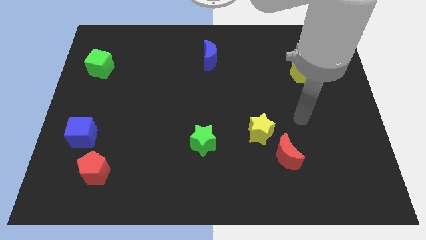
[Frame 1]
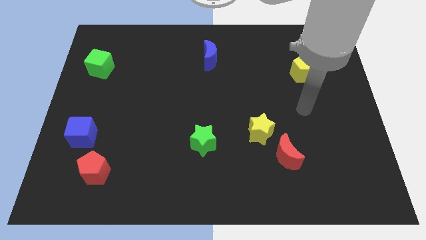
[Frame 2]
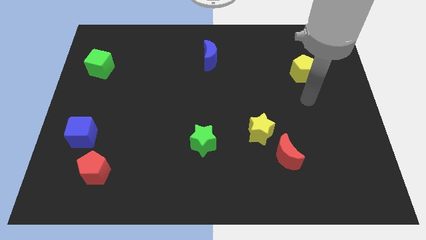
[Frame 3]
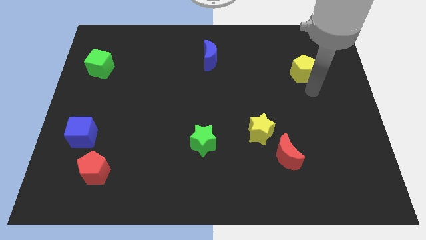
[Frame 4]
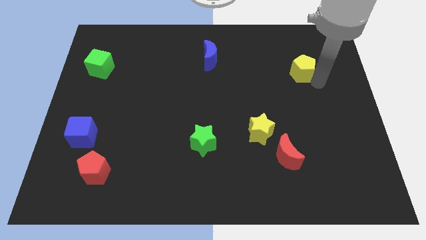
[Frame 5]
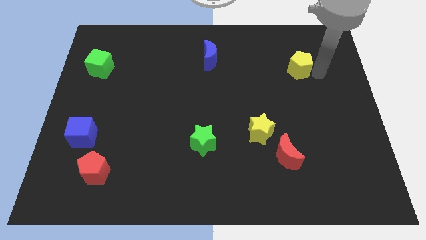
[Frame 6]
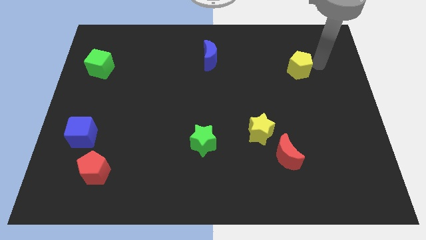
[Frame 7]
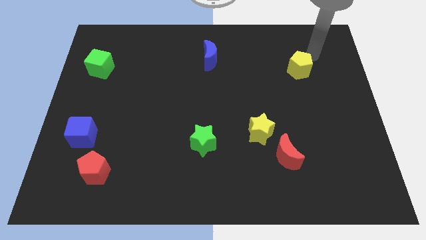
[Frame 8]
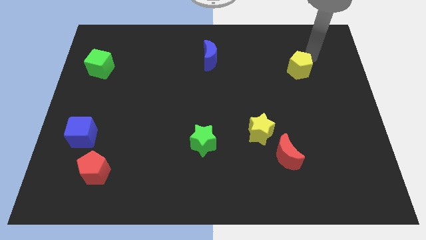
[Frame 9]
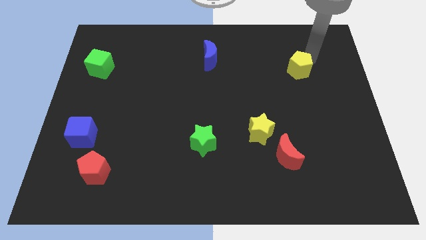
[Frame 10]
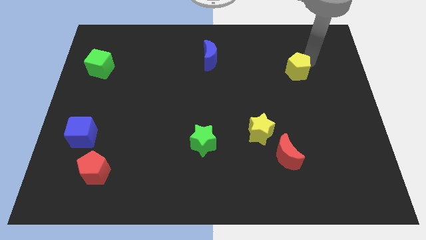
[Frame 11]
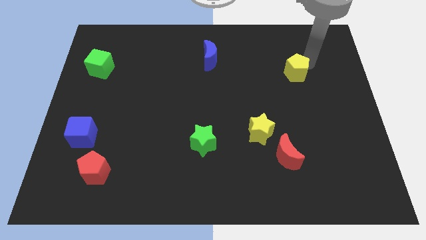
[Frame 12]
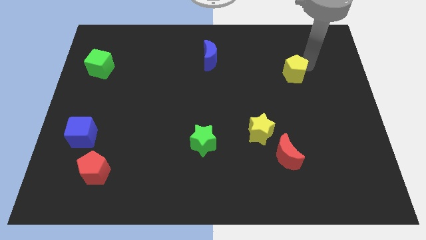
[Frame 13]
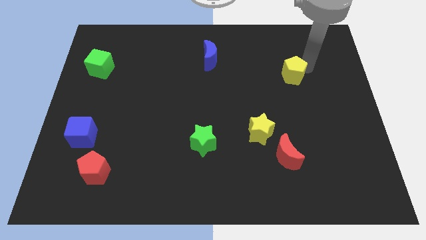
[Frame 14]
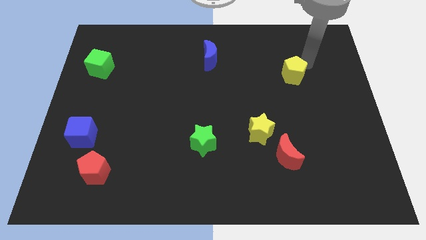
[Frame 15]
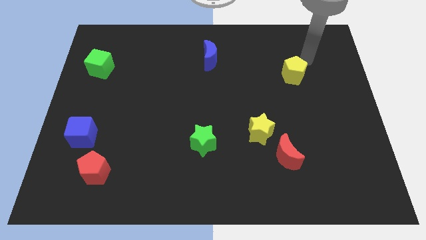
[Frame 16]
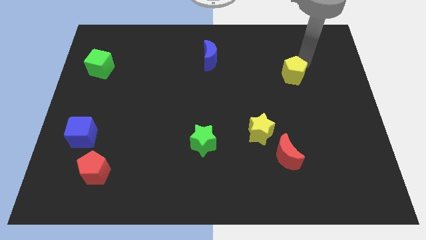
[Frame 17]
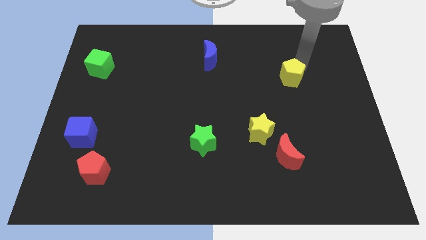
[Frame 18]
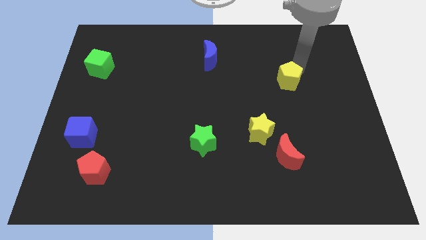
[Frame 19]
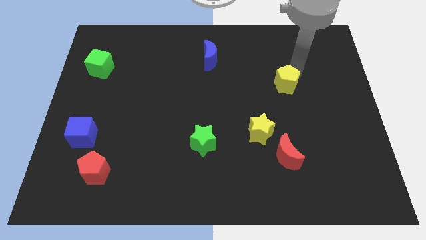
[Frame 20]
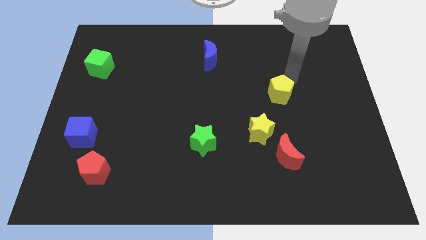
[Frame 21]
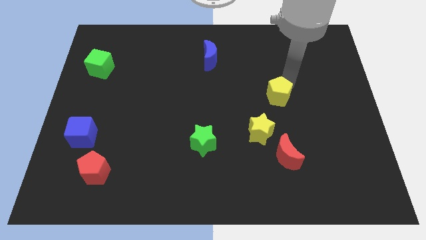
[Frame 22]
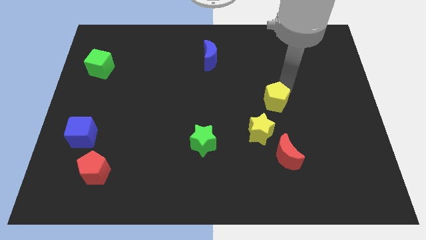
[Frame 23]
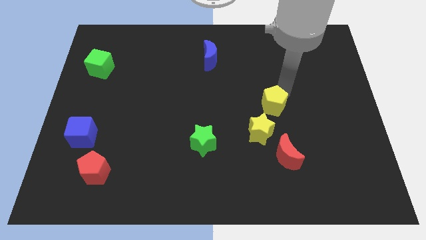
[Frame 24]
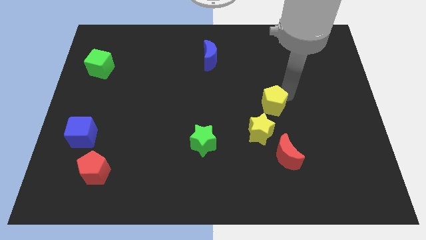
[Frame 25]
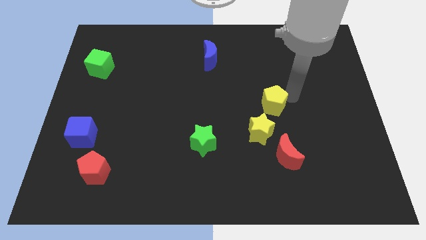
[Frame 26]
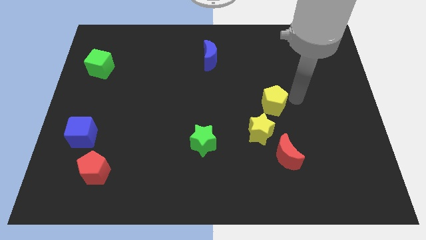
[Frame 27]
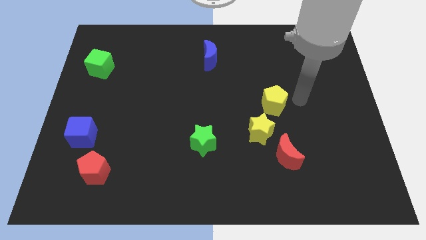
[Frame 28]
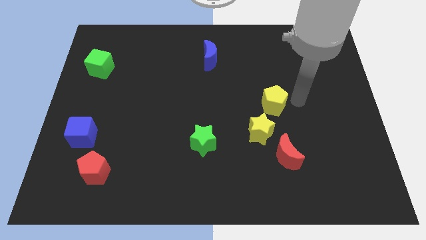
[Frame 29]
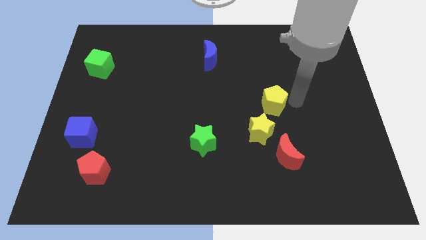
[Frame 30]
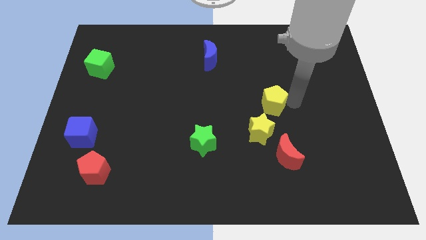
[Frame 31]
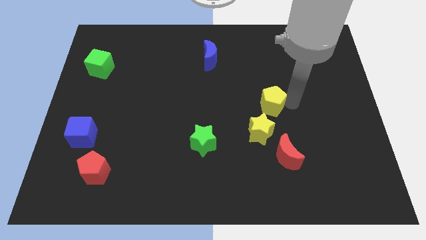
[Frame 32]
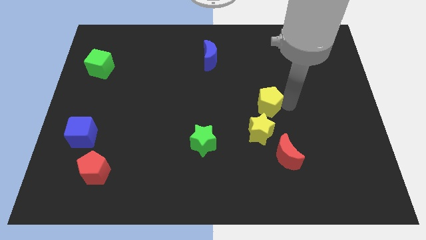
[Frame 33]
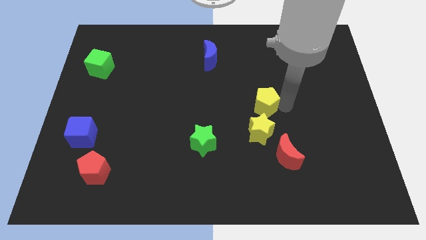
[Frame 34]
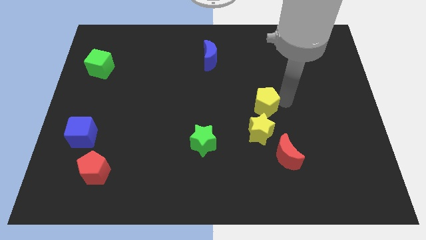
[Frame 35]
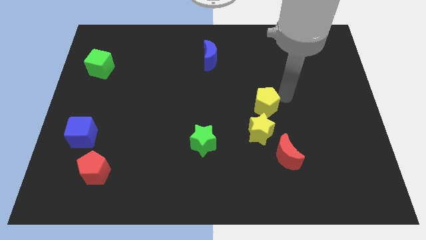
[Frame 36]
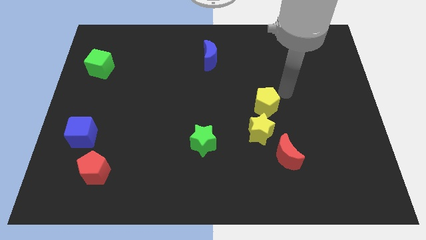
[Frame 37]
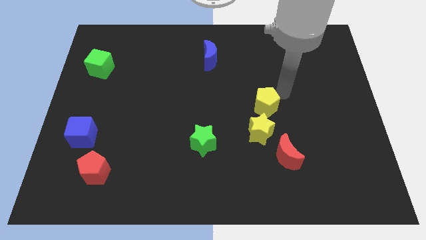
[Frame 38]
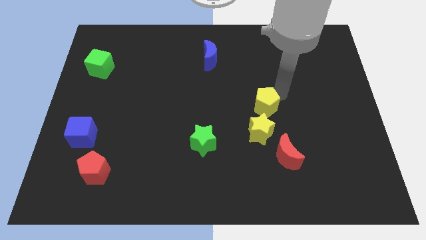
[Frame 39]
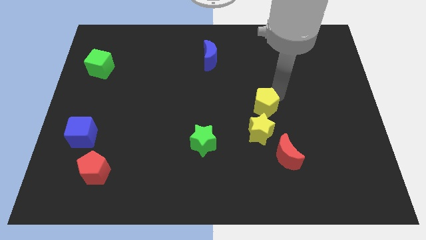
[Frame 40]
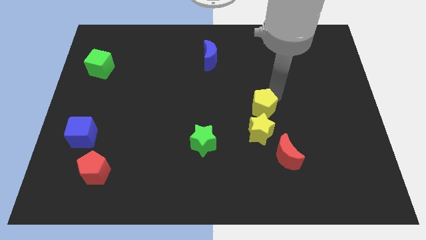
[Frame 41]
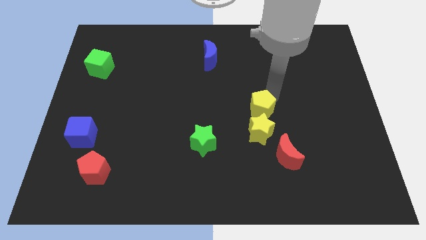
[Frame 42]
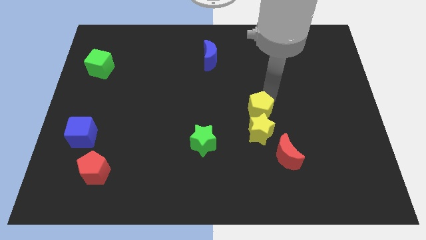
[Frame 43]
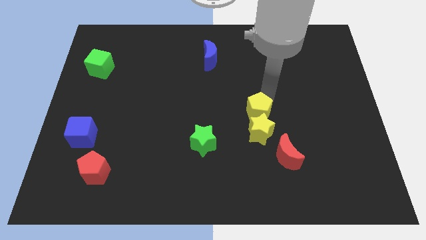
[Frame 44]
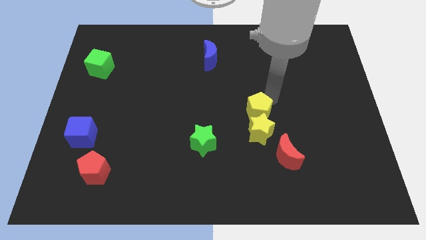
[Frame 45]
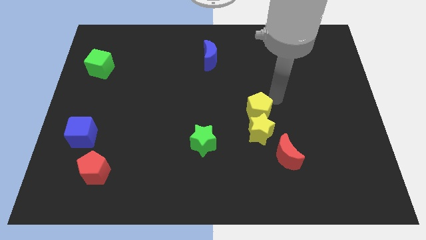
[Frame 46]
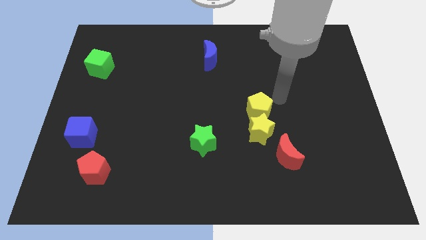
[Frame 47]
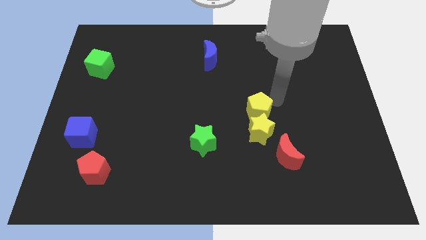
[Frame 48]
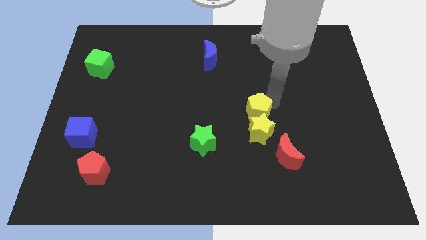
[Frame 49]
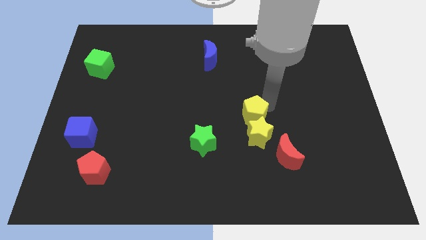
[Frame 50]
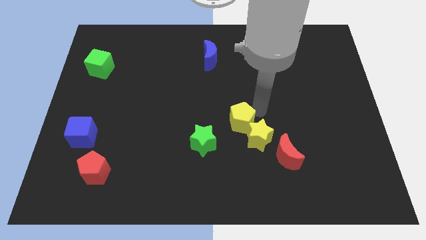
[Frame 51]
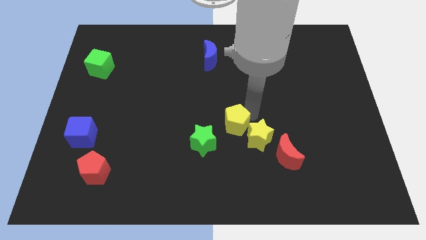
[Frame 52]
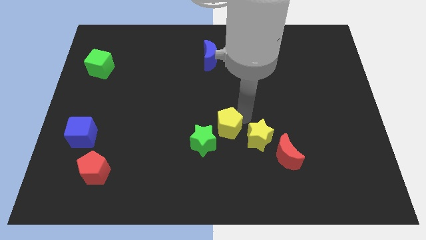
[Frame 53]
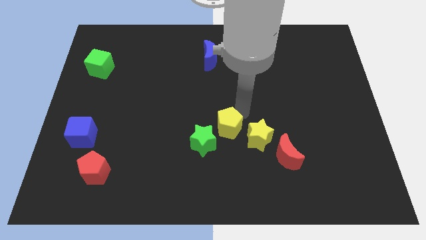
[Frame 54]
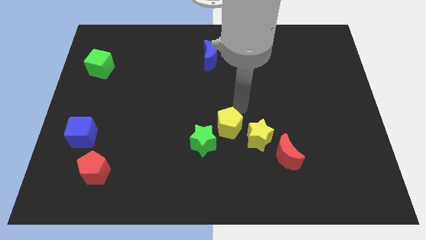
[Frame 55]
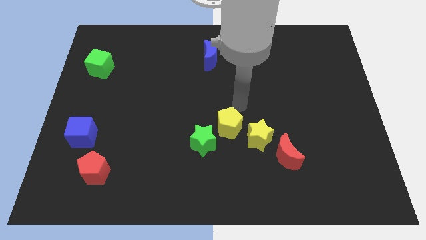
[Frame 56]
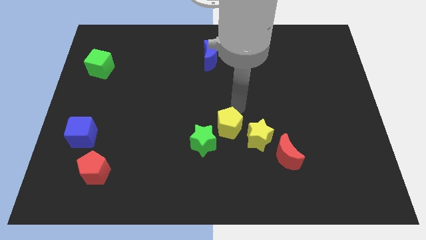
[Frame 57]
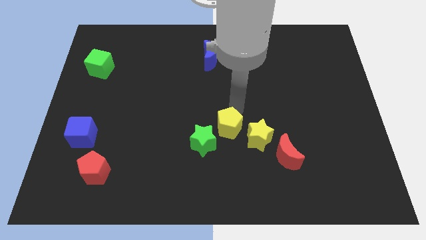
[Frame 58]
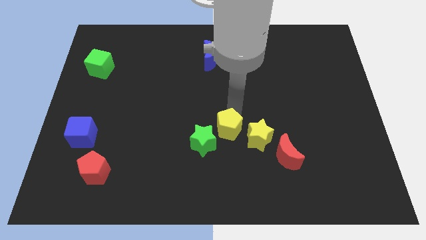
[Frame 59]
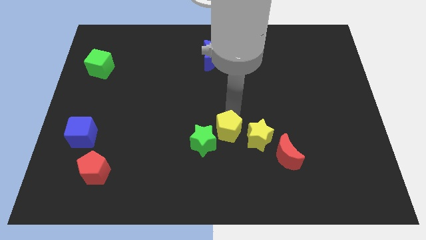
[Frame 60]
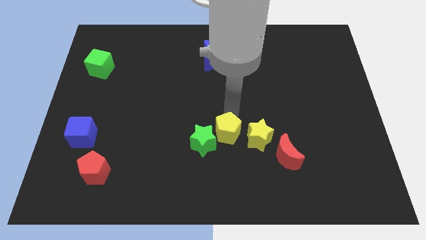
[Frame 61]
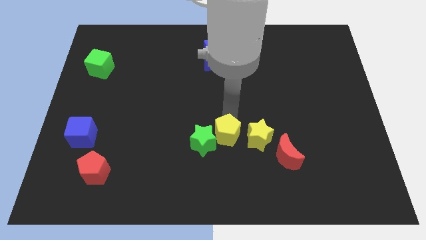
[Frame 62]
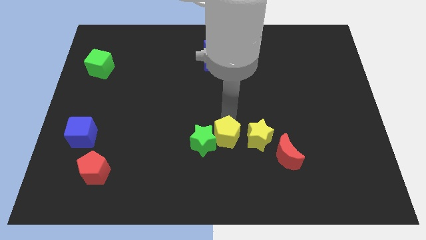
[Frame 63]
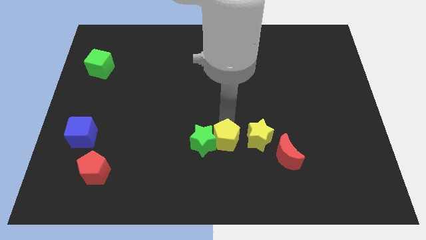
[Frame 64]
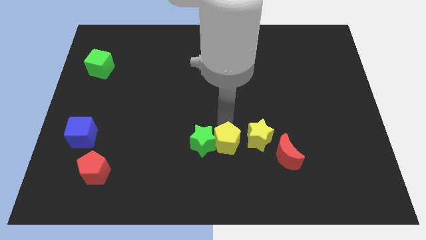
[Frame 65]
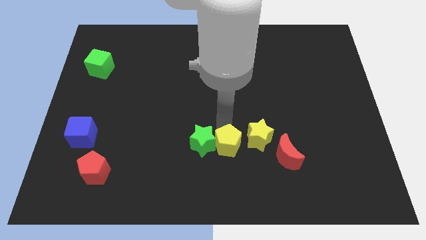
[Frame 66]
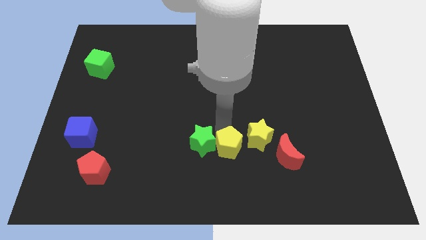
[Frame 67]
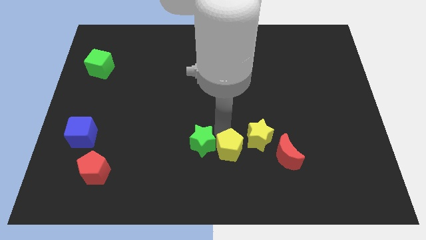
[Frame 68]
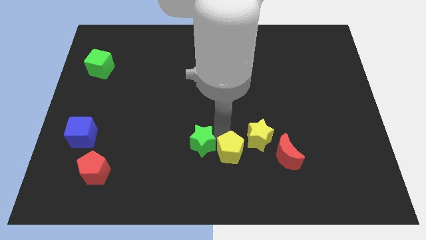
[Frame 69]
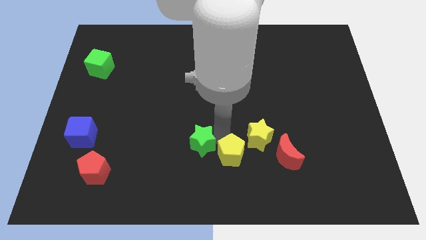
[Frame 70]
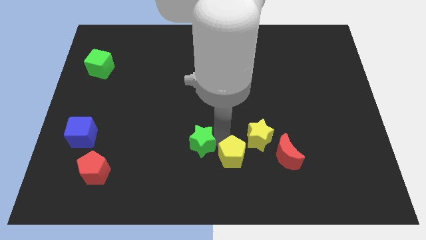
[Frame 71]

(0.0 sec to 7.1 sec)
move the yellow pentagon to the bottom side
